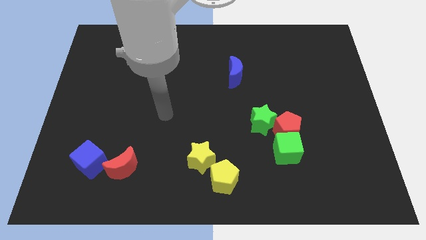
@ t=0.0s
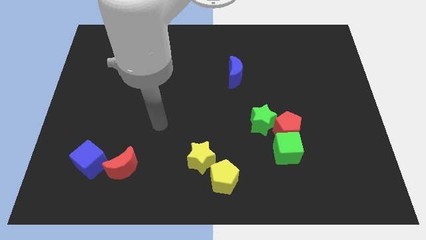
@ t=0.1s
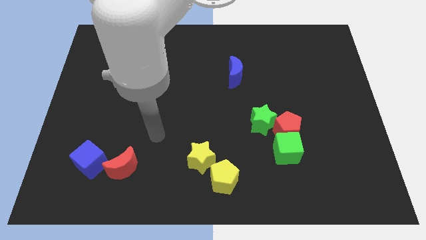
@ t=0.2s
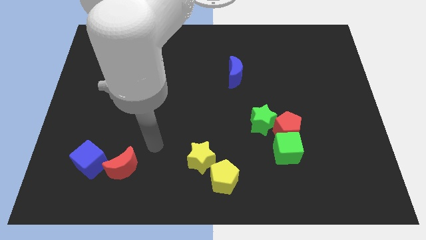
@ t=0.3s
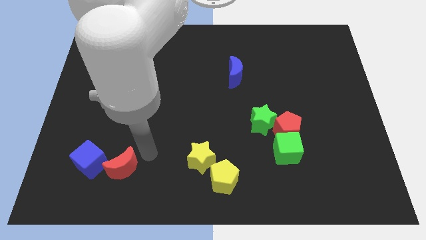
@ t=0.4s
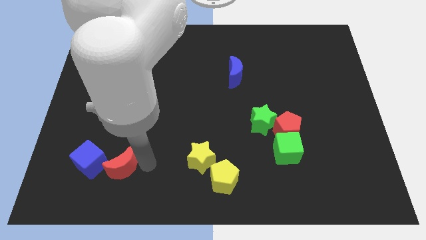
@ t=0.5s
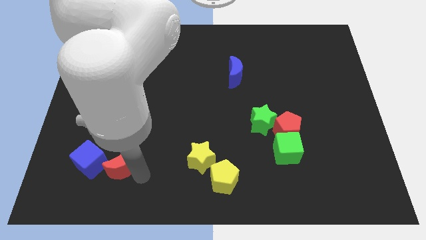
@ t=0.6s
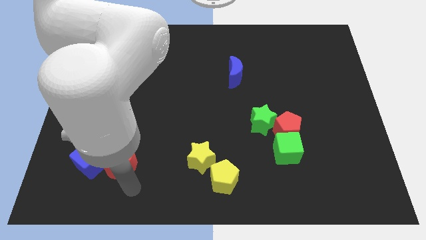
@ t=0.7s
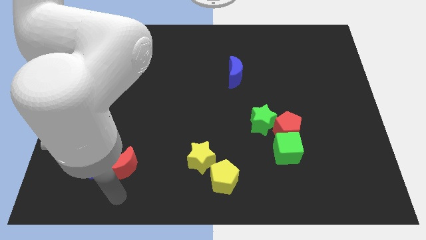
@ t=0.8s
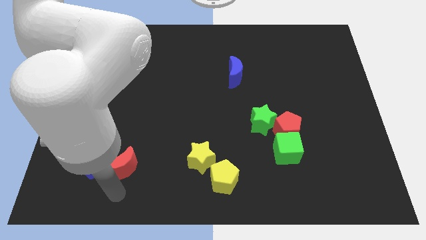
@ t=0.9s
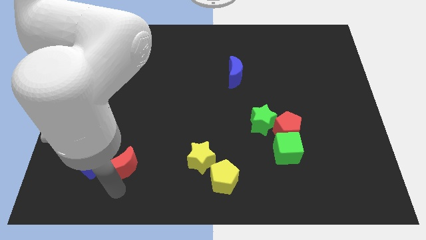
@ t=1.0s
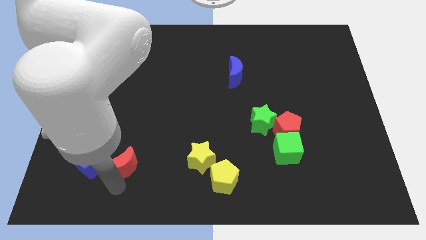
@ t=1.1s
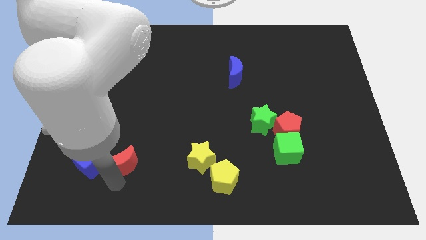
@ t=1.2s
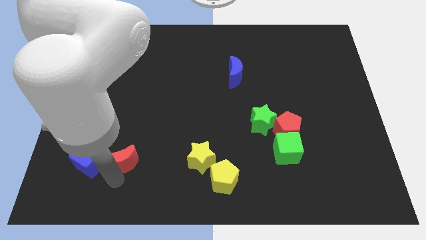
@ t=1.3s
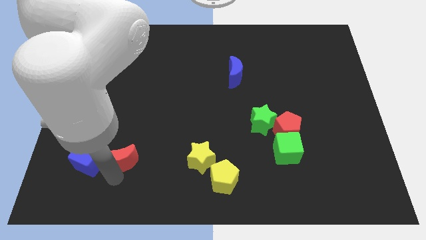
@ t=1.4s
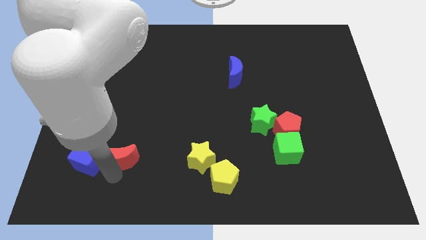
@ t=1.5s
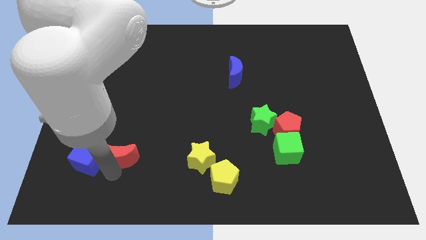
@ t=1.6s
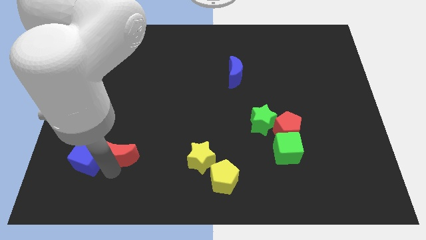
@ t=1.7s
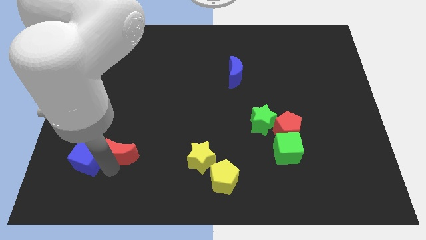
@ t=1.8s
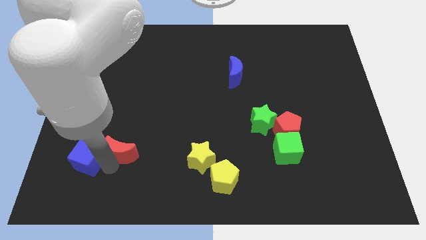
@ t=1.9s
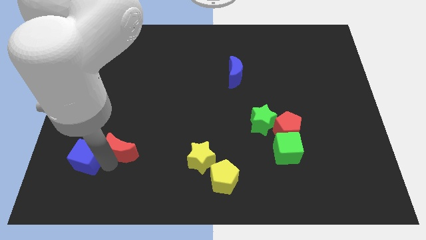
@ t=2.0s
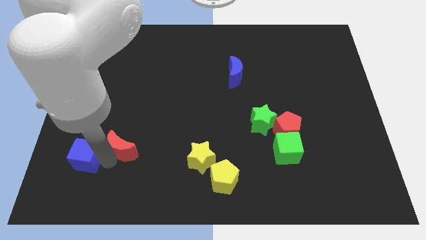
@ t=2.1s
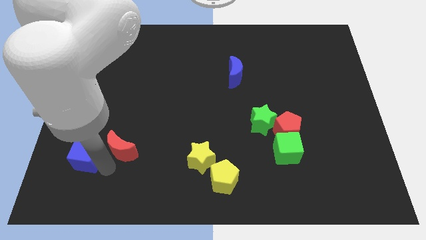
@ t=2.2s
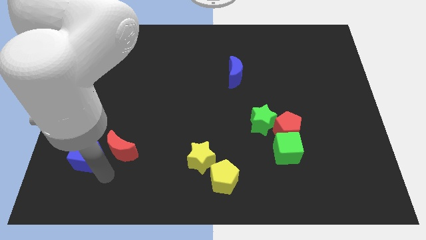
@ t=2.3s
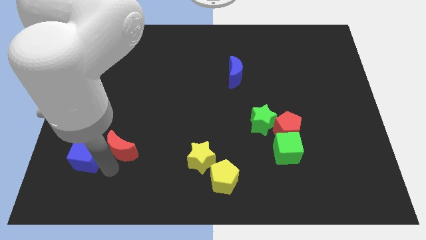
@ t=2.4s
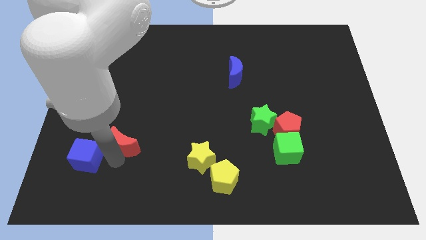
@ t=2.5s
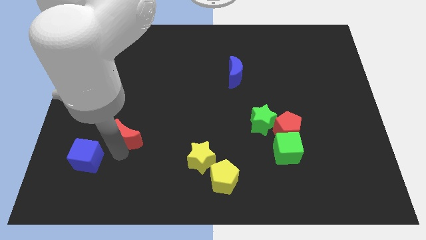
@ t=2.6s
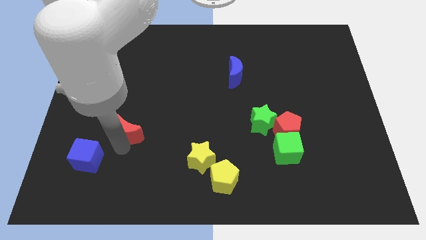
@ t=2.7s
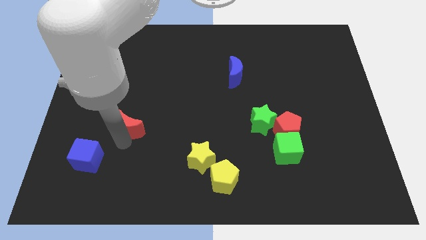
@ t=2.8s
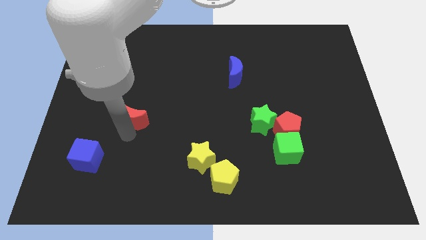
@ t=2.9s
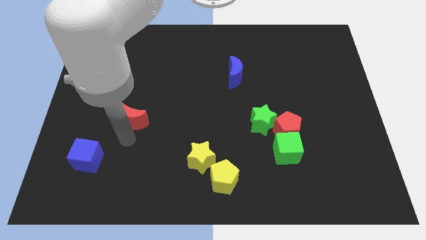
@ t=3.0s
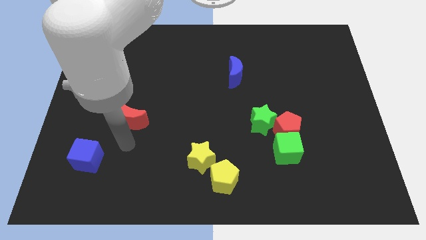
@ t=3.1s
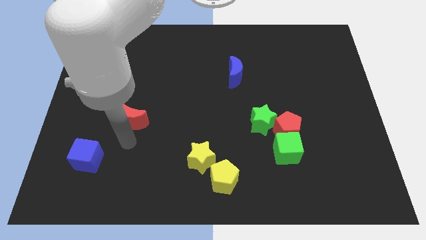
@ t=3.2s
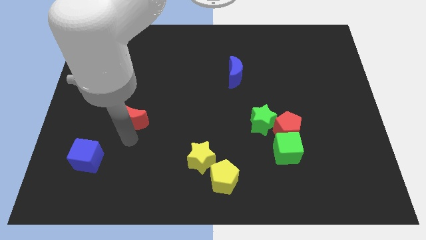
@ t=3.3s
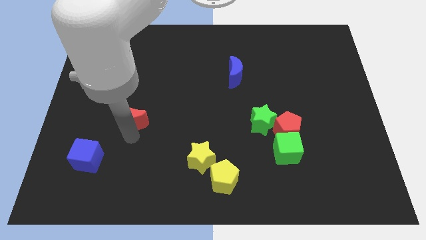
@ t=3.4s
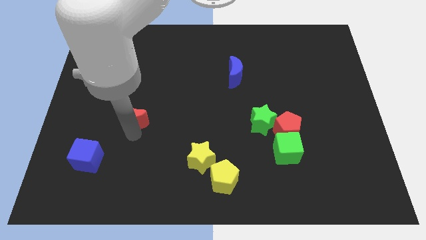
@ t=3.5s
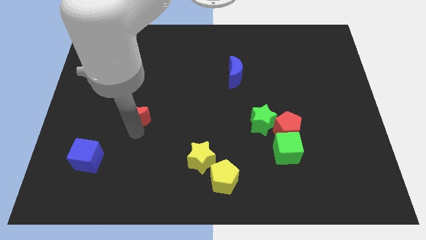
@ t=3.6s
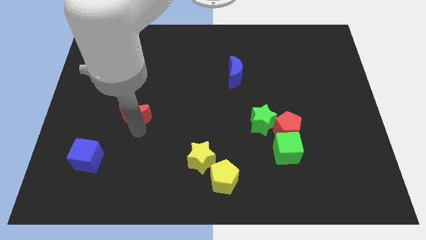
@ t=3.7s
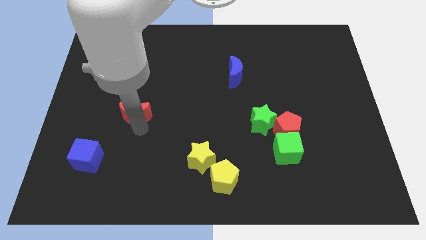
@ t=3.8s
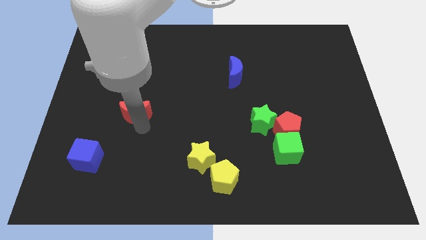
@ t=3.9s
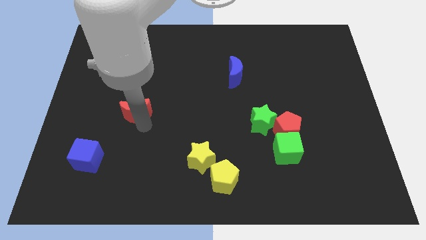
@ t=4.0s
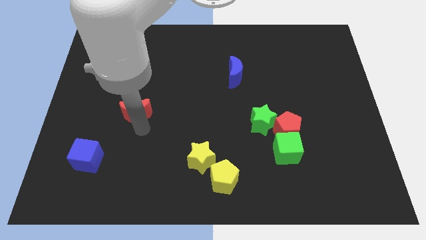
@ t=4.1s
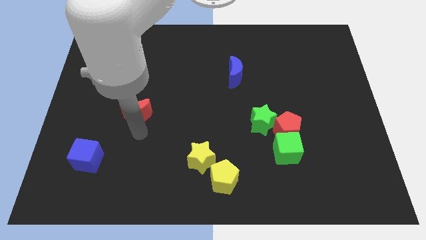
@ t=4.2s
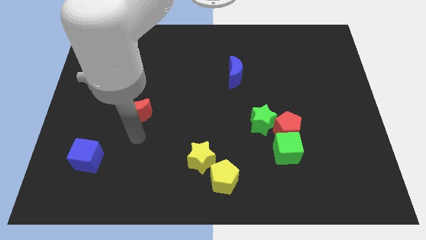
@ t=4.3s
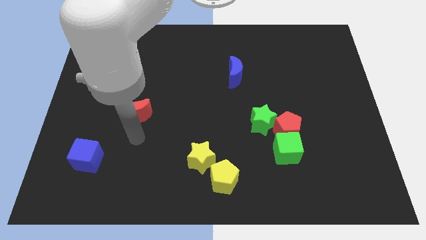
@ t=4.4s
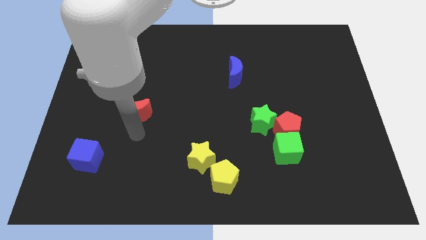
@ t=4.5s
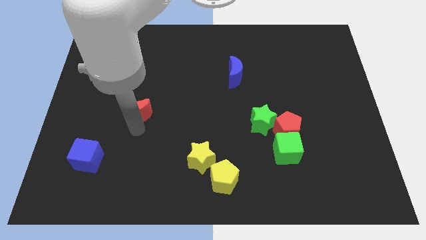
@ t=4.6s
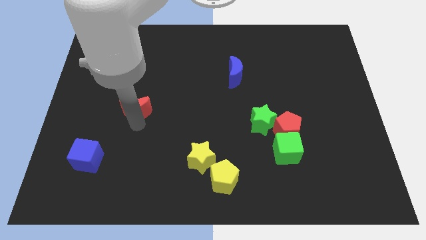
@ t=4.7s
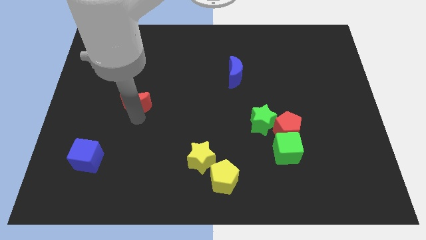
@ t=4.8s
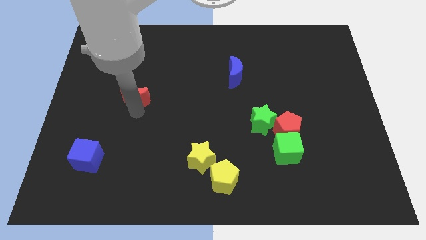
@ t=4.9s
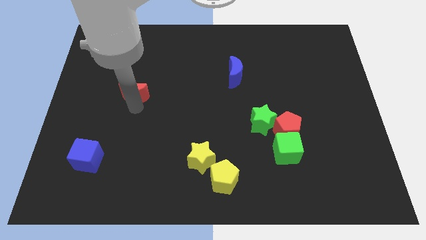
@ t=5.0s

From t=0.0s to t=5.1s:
move the red moon up

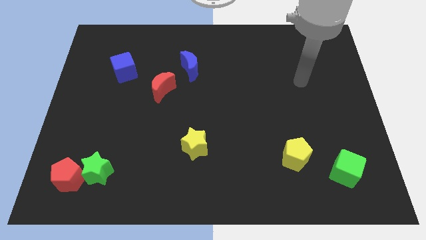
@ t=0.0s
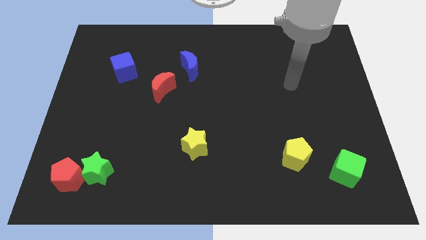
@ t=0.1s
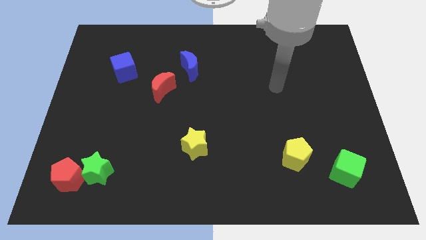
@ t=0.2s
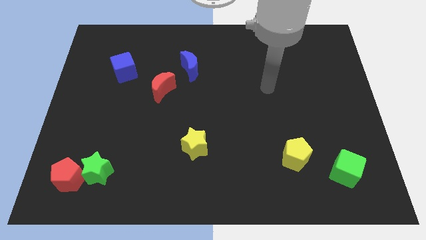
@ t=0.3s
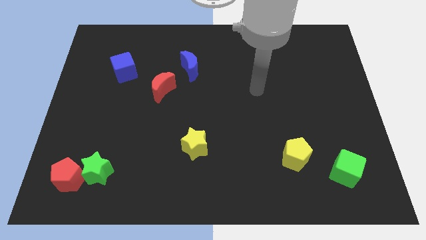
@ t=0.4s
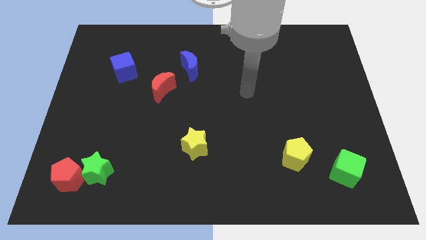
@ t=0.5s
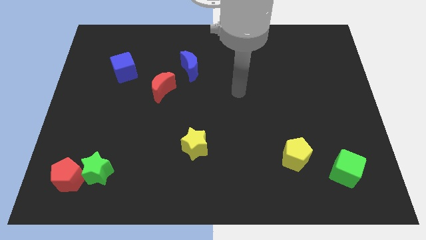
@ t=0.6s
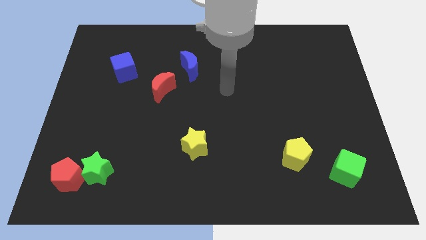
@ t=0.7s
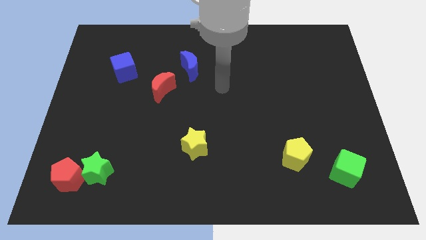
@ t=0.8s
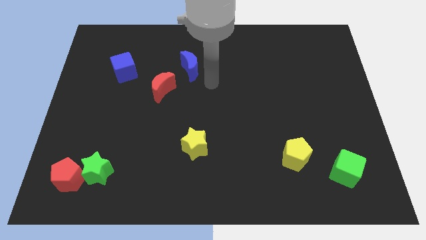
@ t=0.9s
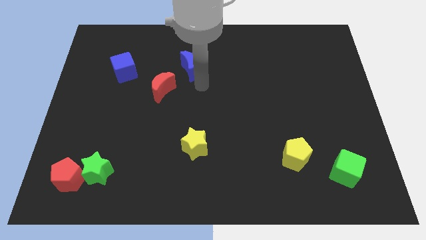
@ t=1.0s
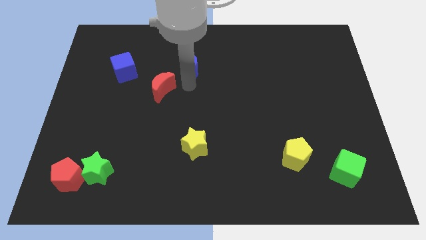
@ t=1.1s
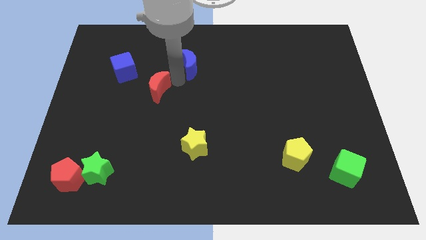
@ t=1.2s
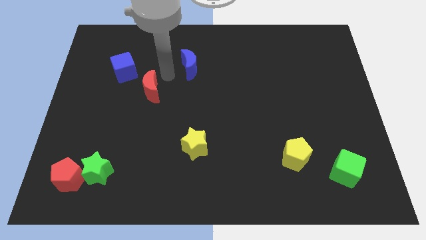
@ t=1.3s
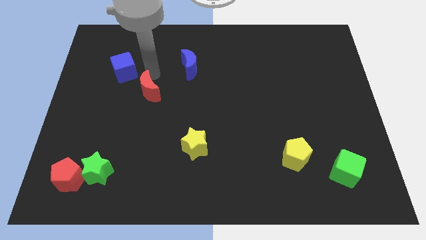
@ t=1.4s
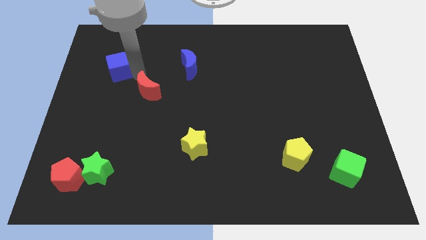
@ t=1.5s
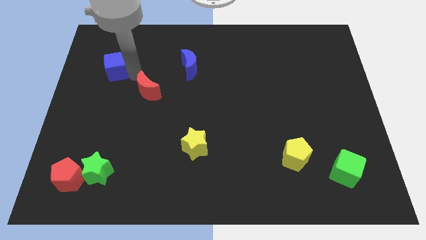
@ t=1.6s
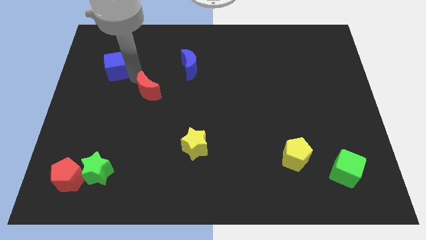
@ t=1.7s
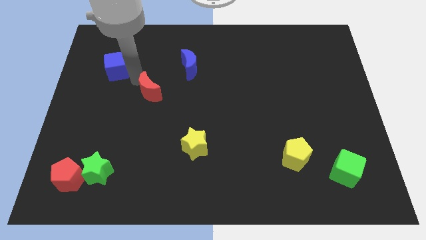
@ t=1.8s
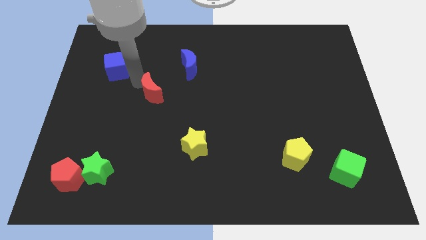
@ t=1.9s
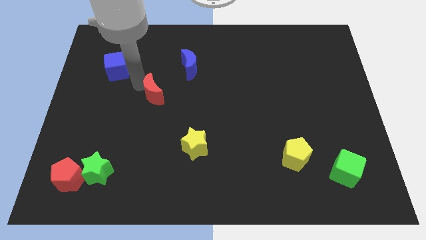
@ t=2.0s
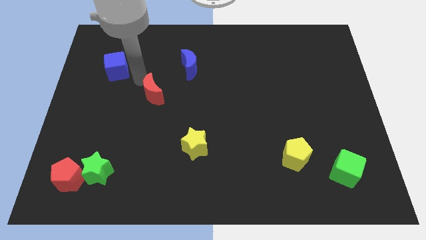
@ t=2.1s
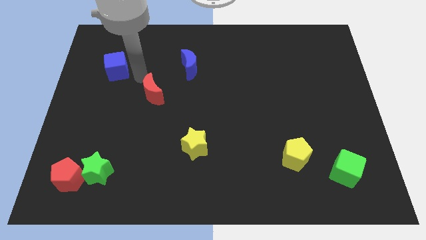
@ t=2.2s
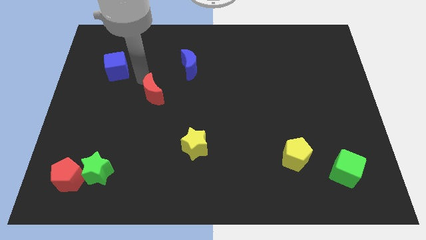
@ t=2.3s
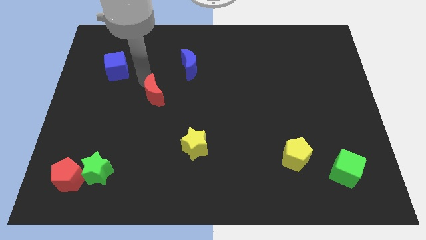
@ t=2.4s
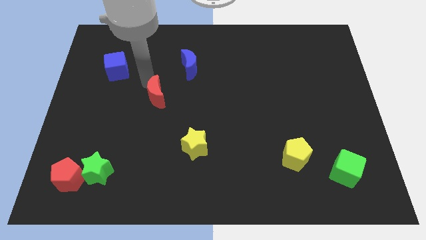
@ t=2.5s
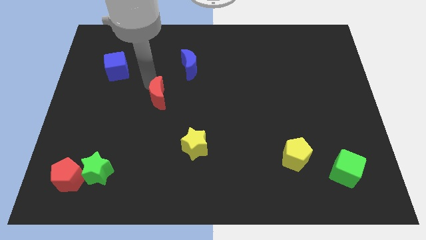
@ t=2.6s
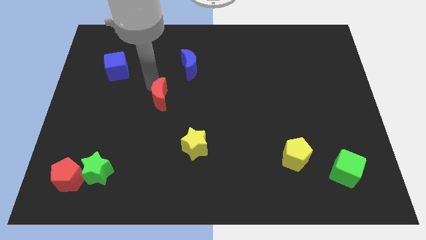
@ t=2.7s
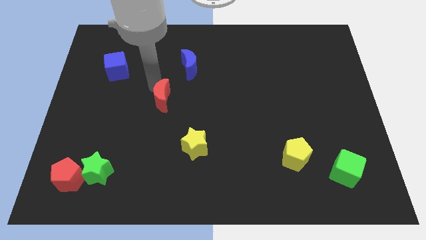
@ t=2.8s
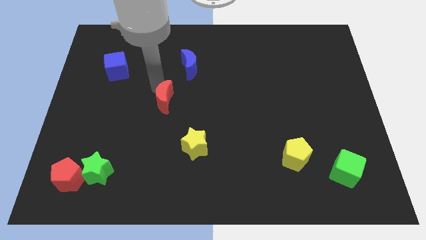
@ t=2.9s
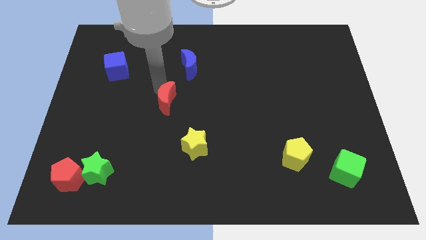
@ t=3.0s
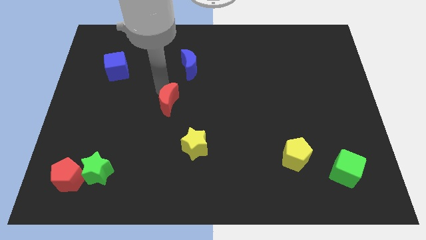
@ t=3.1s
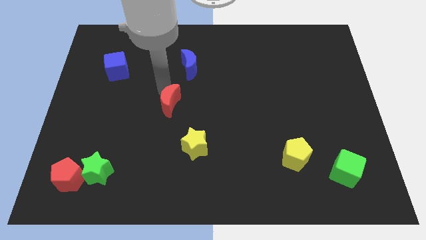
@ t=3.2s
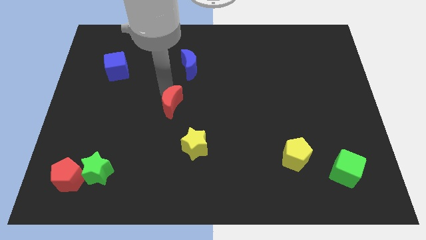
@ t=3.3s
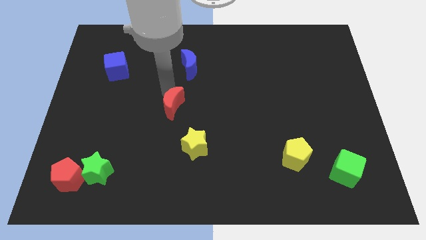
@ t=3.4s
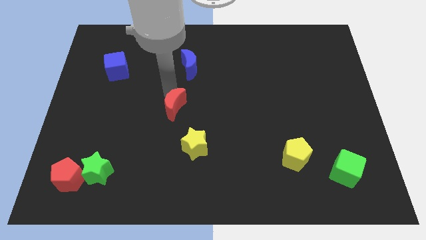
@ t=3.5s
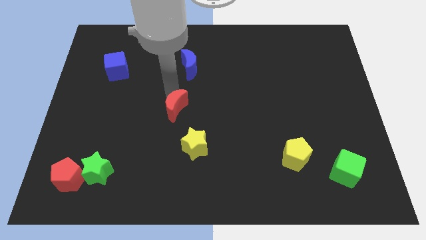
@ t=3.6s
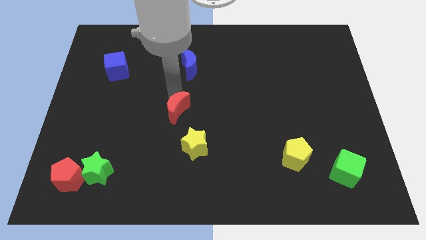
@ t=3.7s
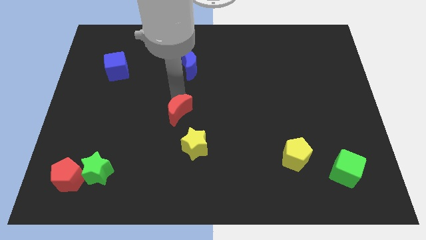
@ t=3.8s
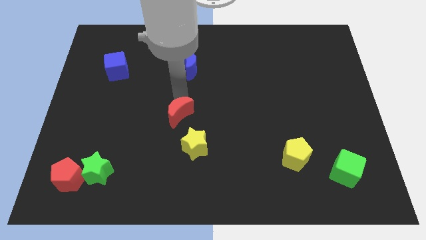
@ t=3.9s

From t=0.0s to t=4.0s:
push the red moon a bit downwards
